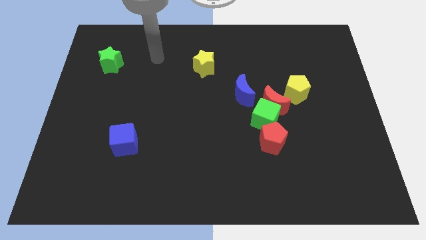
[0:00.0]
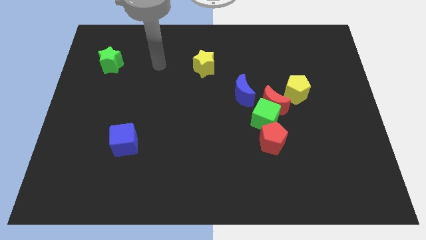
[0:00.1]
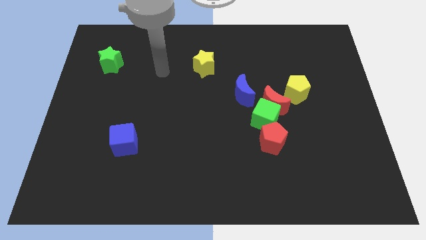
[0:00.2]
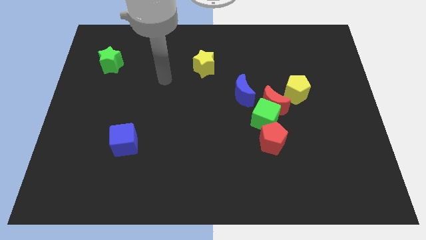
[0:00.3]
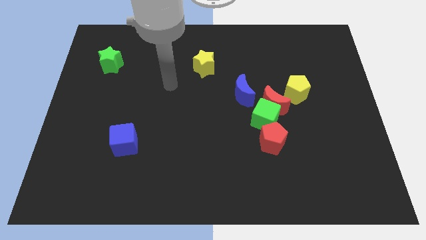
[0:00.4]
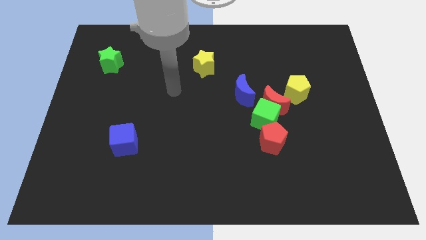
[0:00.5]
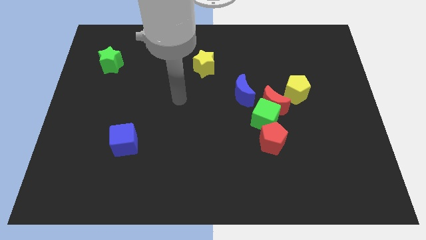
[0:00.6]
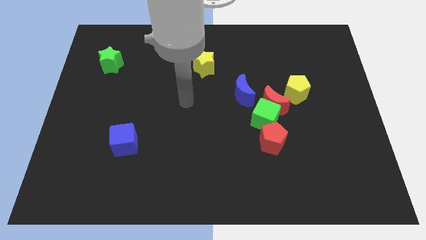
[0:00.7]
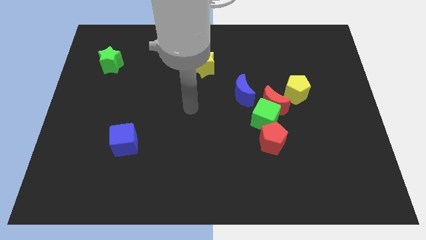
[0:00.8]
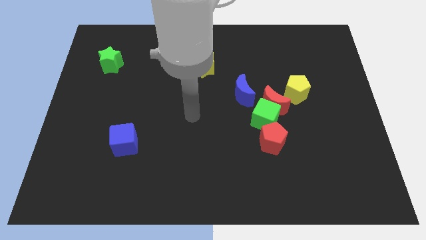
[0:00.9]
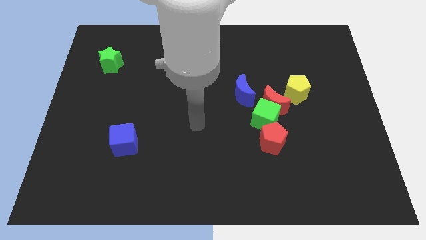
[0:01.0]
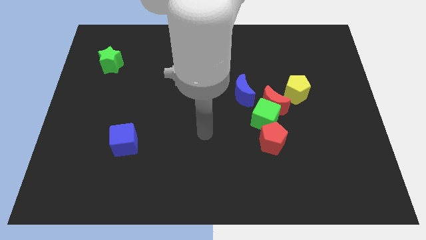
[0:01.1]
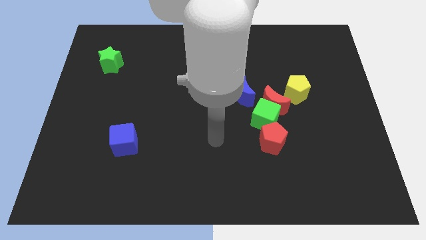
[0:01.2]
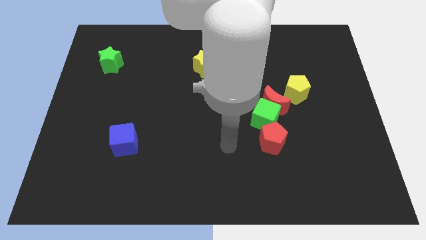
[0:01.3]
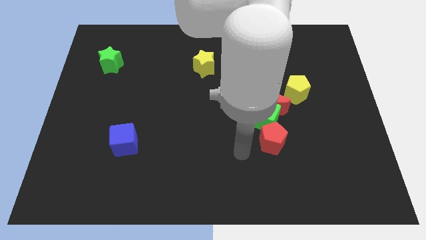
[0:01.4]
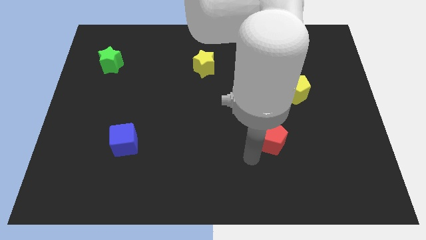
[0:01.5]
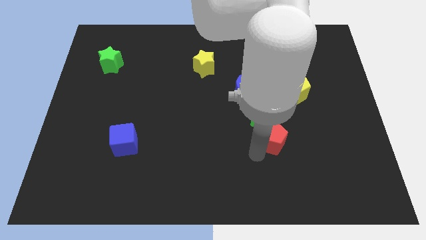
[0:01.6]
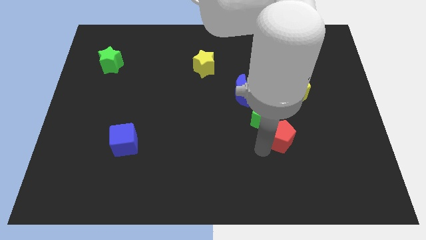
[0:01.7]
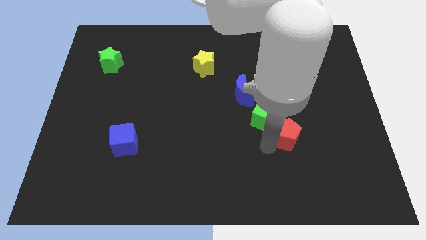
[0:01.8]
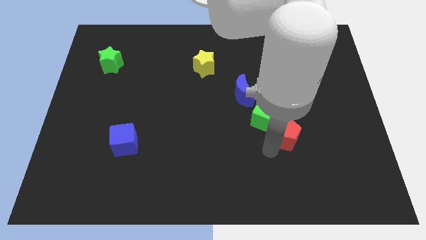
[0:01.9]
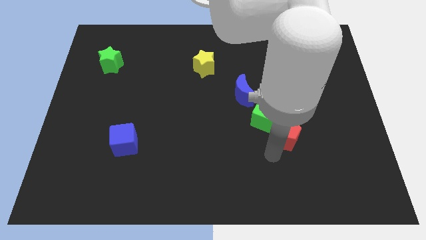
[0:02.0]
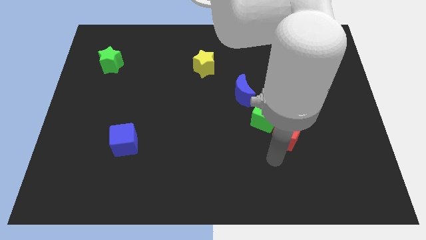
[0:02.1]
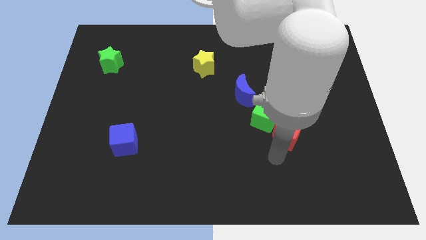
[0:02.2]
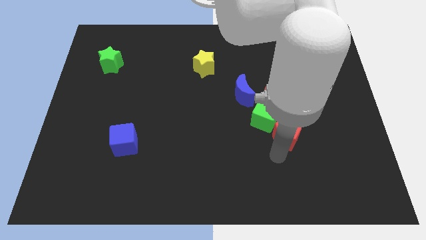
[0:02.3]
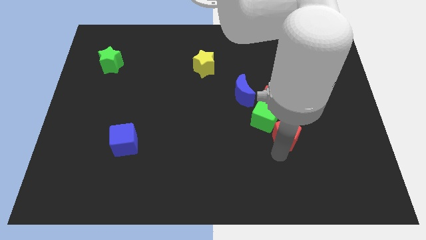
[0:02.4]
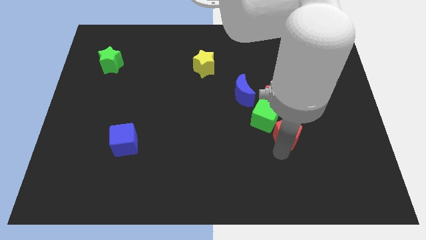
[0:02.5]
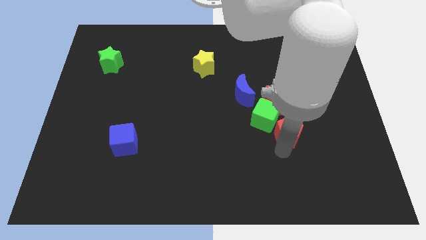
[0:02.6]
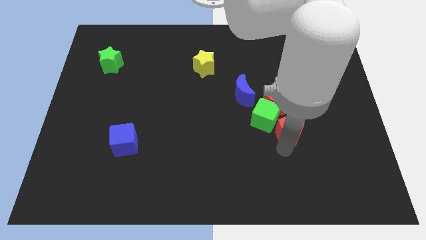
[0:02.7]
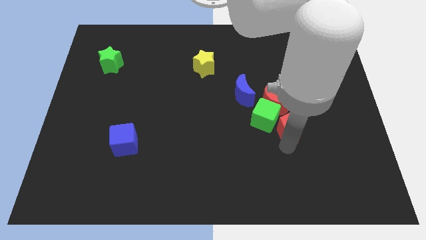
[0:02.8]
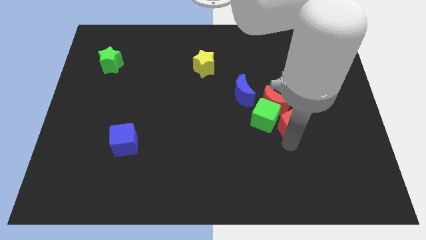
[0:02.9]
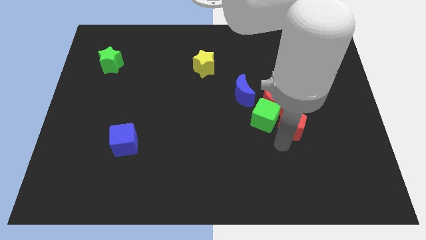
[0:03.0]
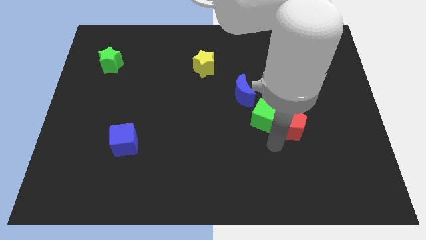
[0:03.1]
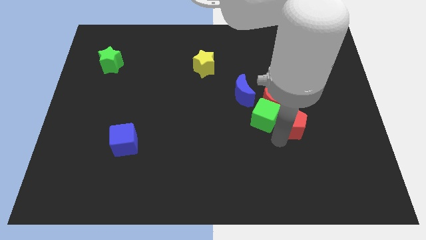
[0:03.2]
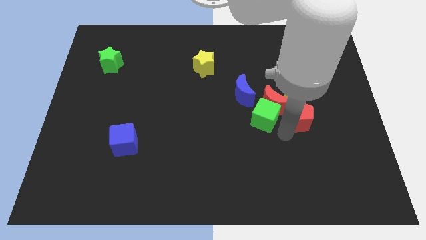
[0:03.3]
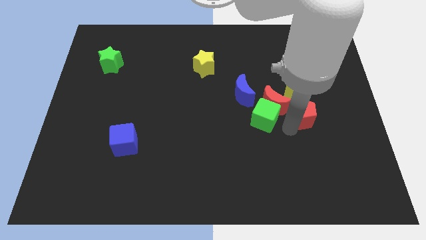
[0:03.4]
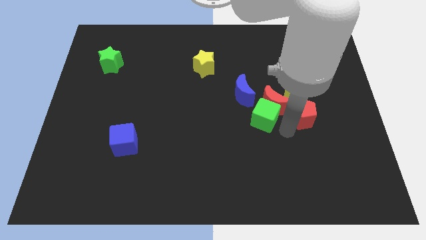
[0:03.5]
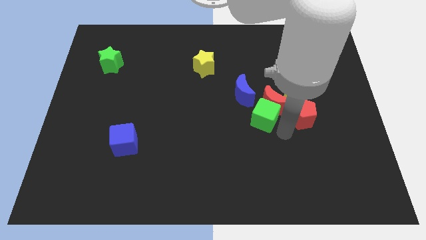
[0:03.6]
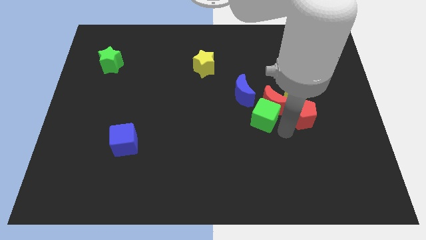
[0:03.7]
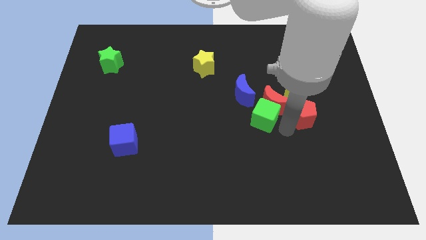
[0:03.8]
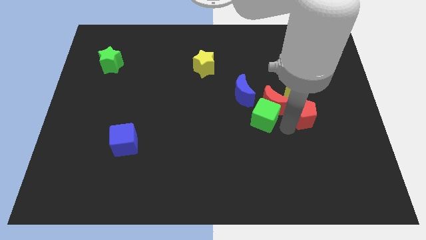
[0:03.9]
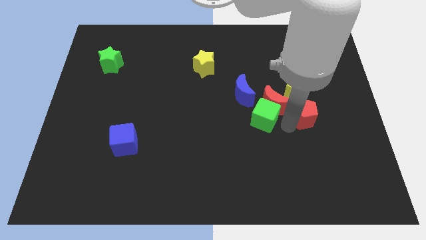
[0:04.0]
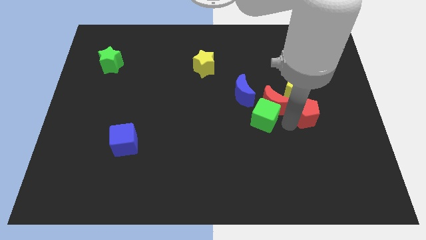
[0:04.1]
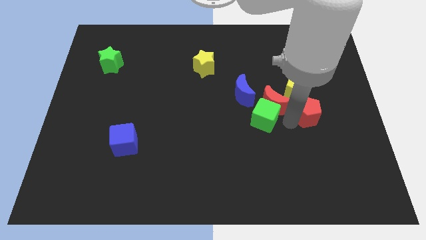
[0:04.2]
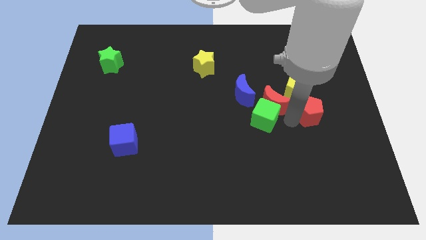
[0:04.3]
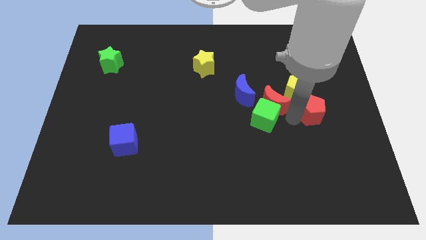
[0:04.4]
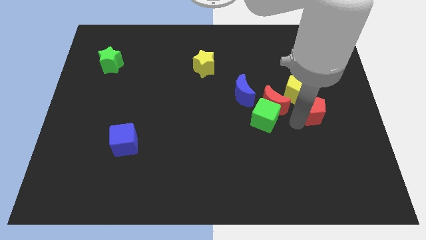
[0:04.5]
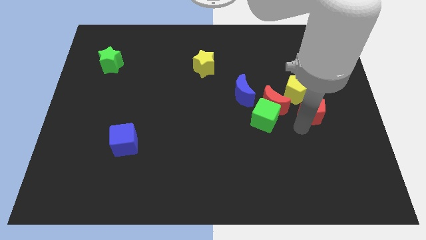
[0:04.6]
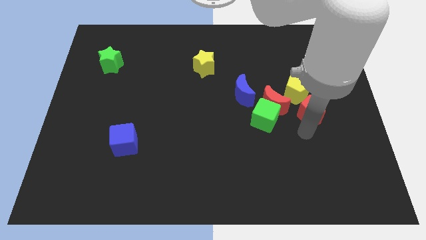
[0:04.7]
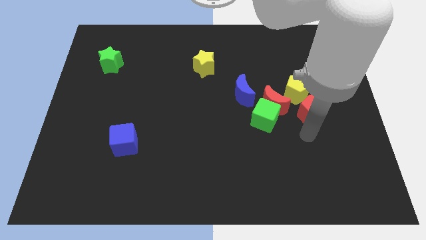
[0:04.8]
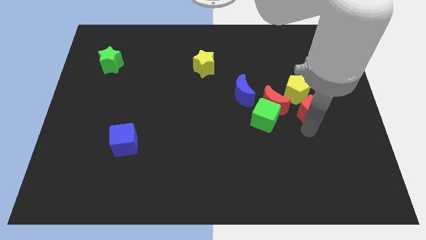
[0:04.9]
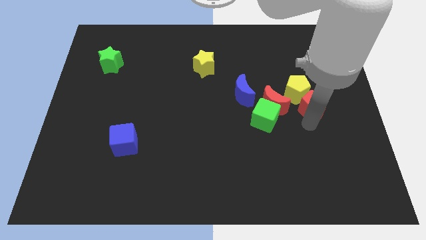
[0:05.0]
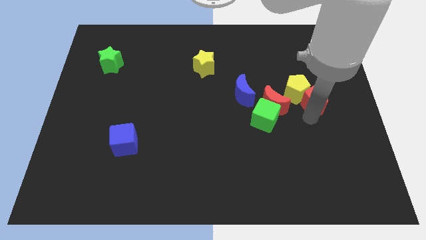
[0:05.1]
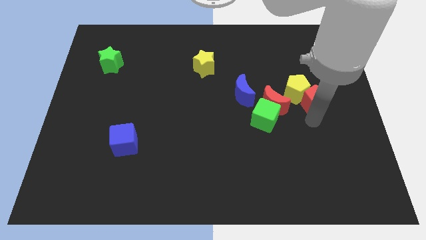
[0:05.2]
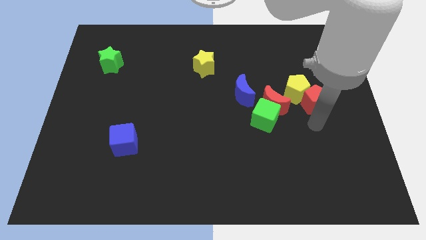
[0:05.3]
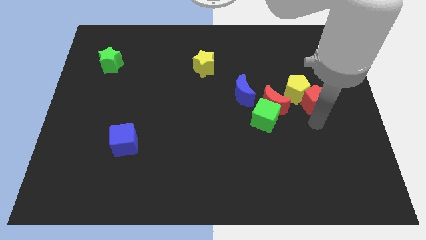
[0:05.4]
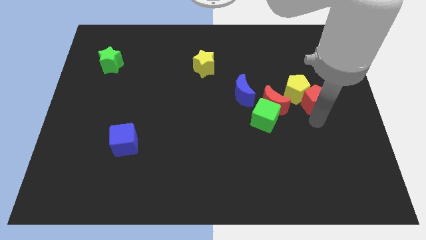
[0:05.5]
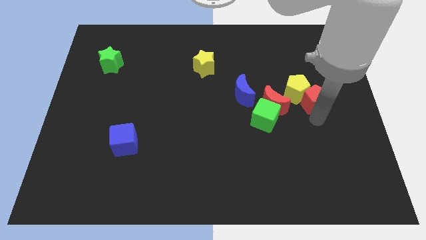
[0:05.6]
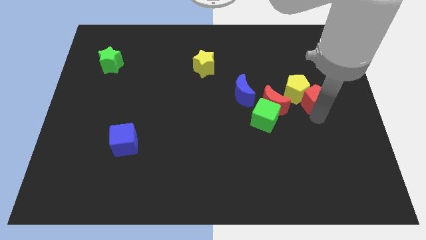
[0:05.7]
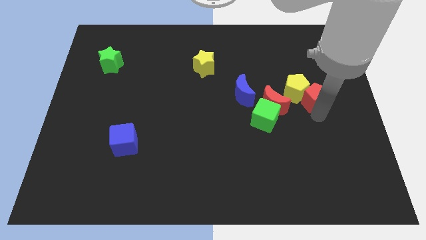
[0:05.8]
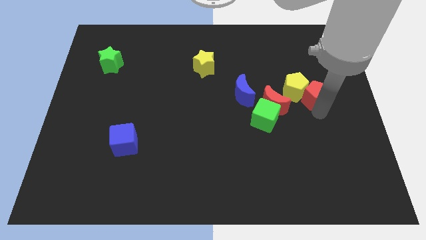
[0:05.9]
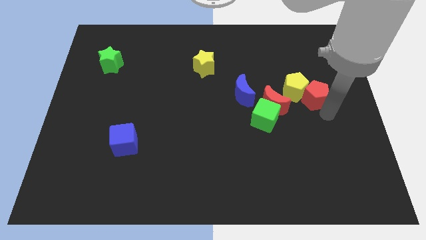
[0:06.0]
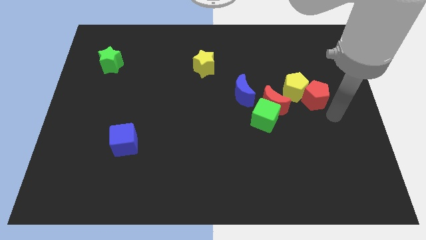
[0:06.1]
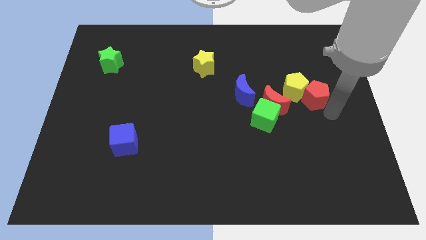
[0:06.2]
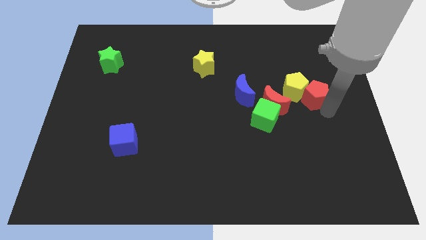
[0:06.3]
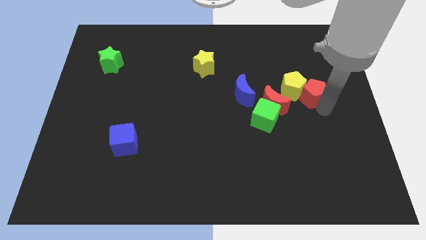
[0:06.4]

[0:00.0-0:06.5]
slightly move the red pentagon upwards

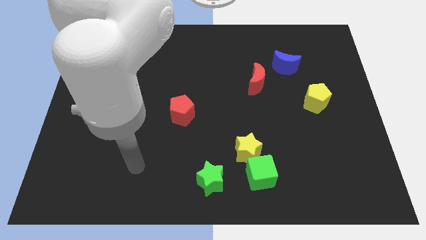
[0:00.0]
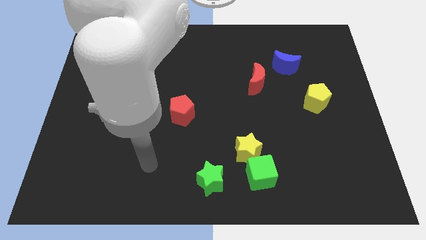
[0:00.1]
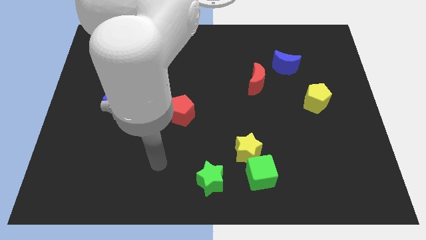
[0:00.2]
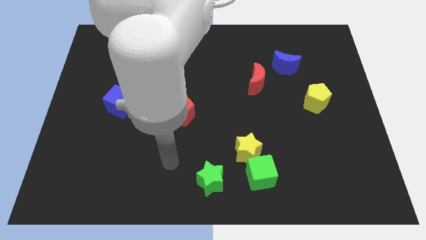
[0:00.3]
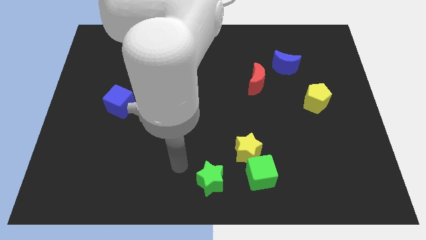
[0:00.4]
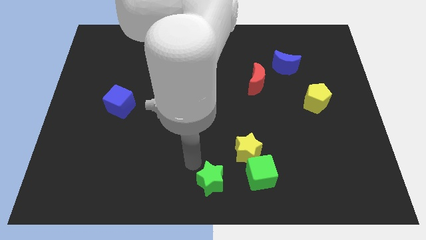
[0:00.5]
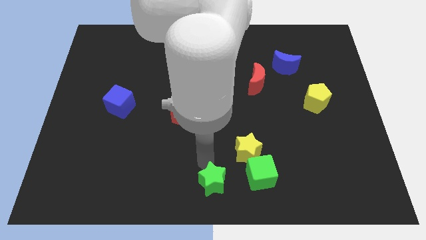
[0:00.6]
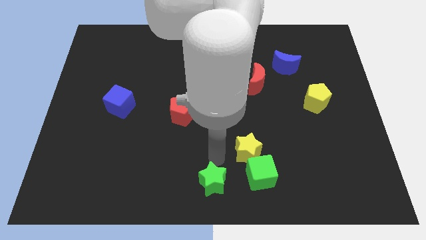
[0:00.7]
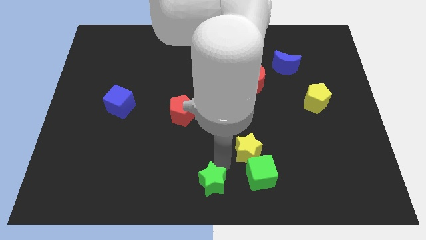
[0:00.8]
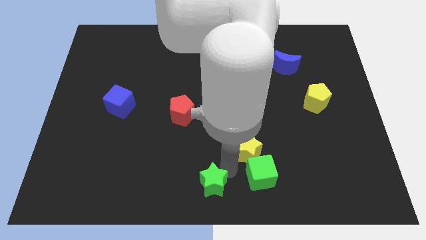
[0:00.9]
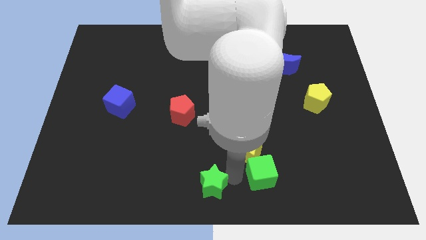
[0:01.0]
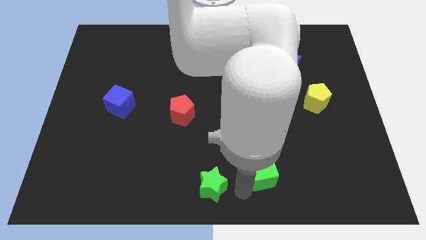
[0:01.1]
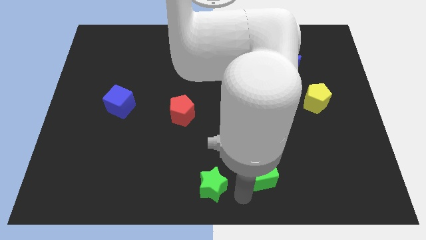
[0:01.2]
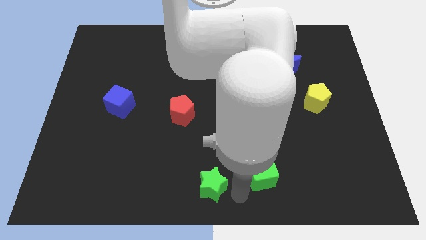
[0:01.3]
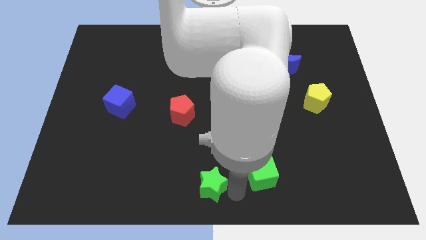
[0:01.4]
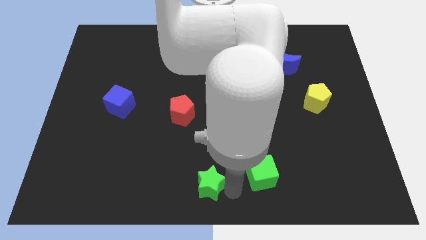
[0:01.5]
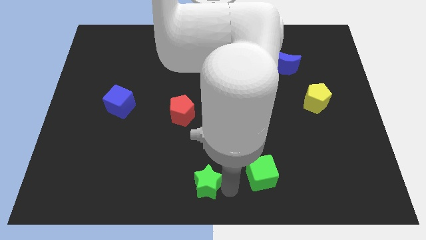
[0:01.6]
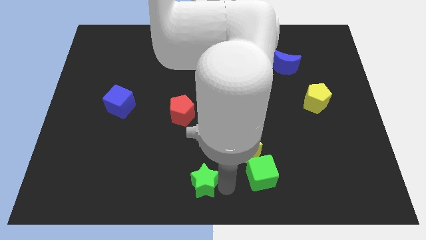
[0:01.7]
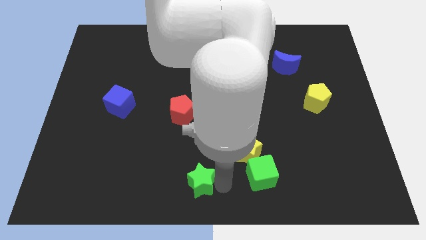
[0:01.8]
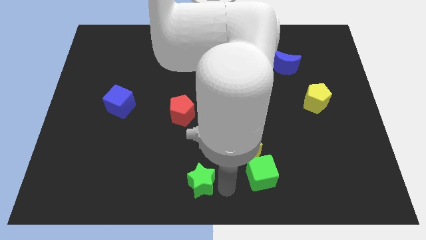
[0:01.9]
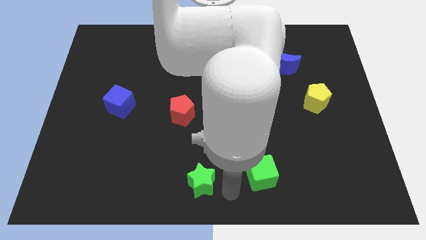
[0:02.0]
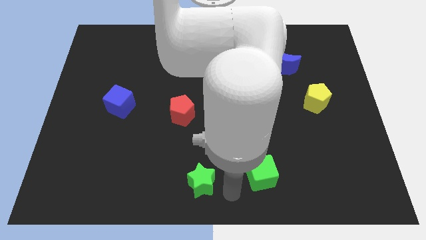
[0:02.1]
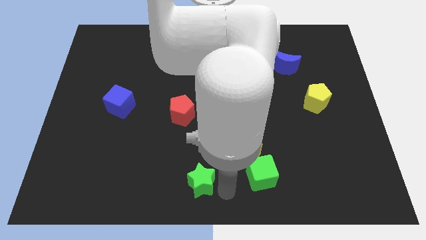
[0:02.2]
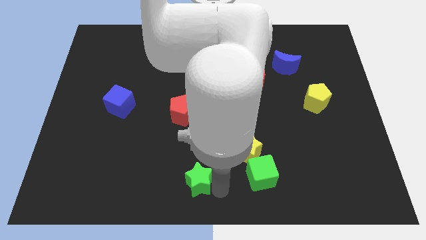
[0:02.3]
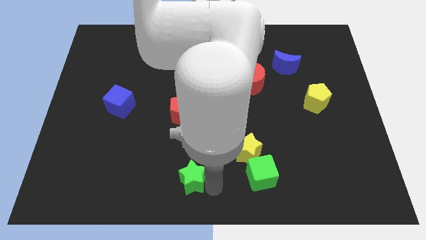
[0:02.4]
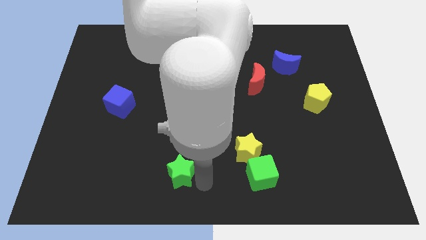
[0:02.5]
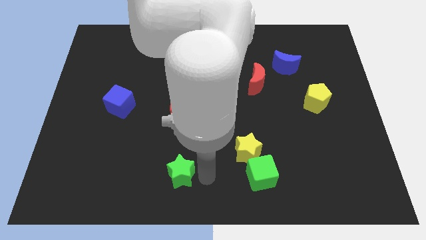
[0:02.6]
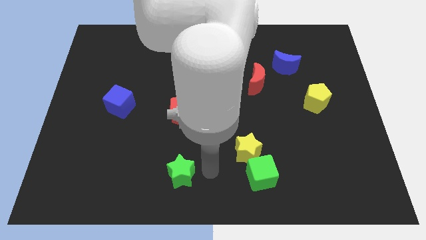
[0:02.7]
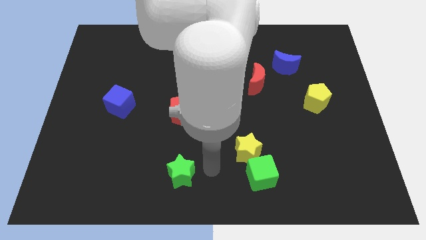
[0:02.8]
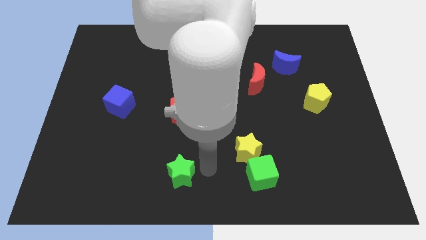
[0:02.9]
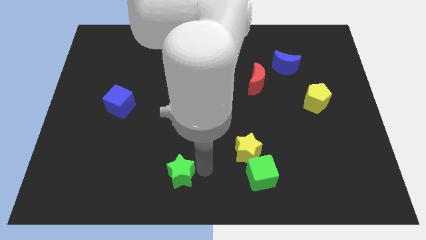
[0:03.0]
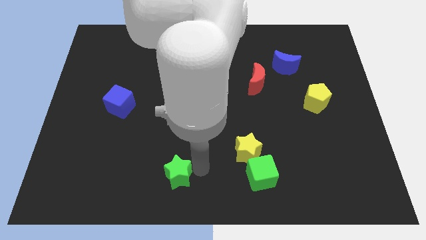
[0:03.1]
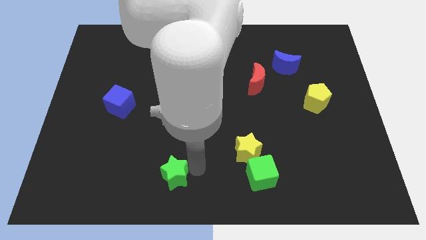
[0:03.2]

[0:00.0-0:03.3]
move the green star somewhat to the left
